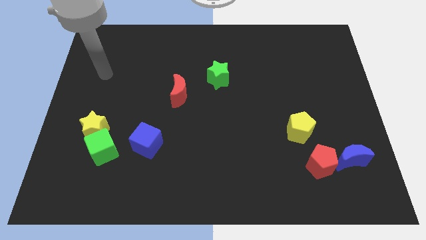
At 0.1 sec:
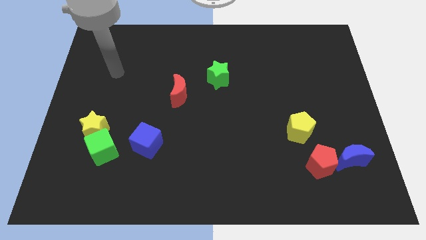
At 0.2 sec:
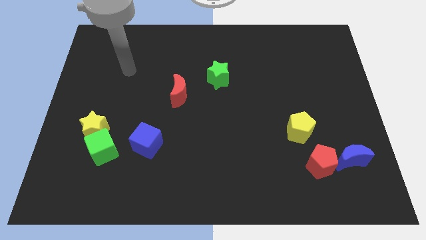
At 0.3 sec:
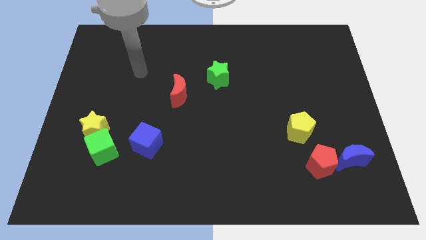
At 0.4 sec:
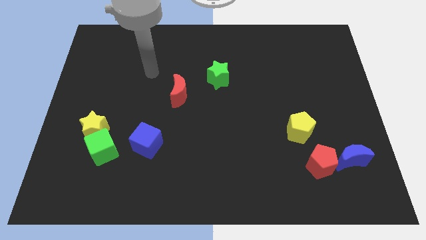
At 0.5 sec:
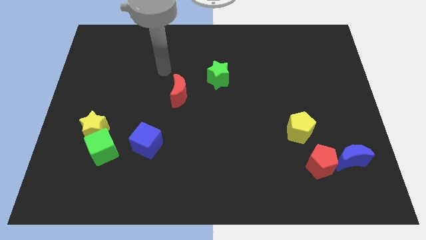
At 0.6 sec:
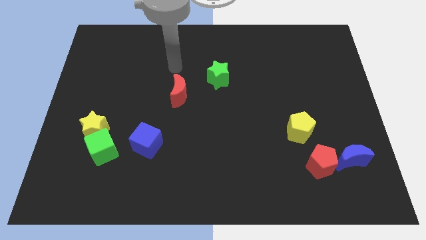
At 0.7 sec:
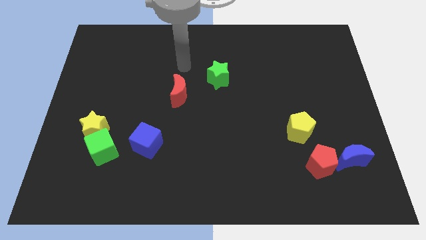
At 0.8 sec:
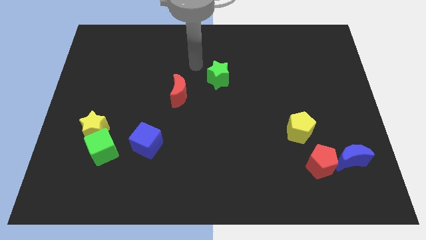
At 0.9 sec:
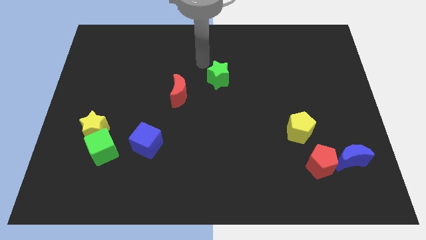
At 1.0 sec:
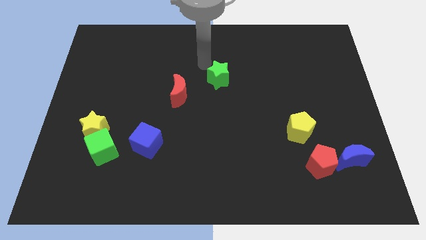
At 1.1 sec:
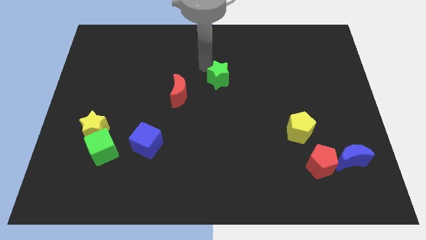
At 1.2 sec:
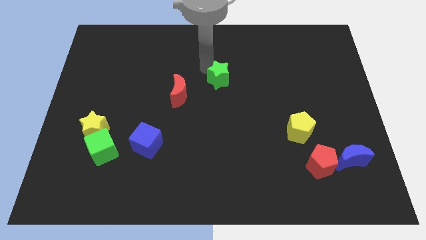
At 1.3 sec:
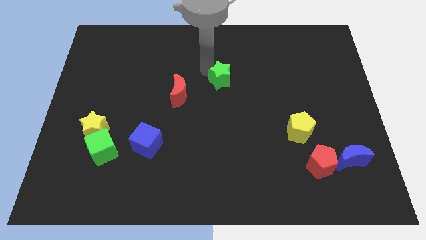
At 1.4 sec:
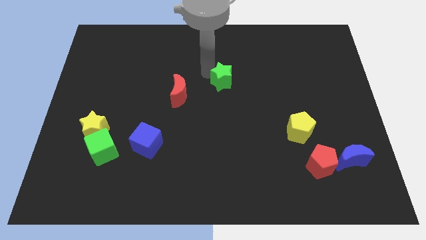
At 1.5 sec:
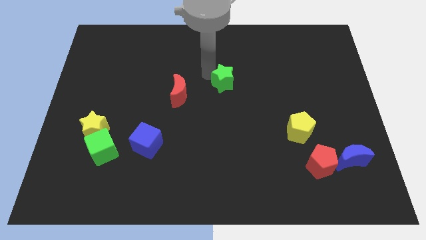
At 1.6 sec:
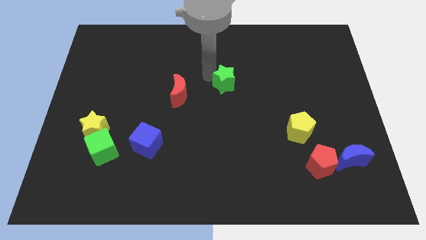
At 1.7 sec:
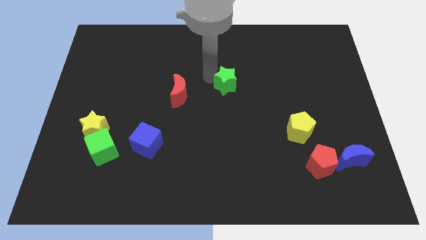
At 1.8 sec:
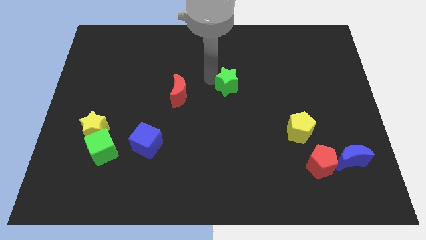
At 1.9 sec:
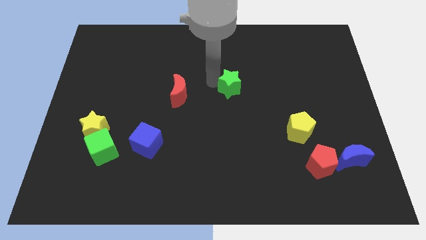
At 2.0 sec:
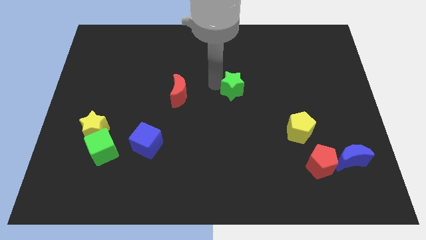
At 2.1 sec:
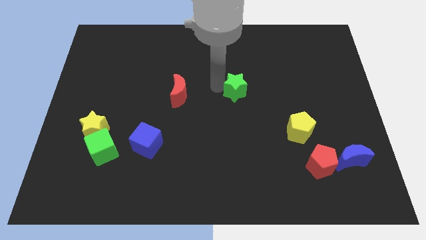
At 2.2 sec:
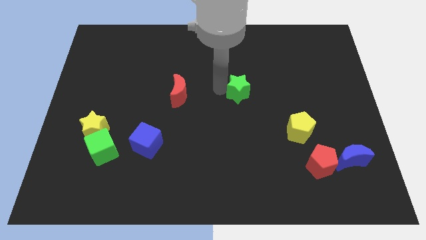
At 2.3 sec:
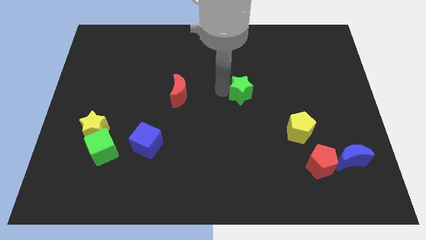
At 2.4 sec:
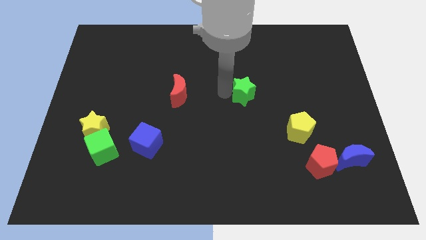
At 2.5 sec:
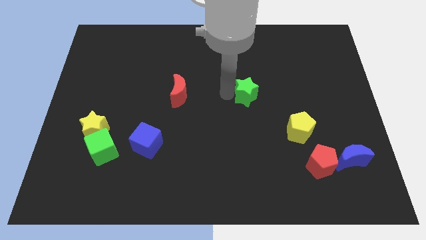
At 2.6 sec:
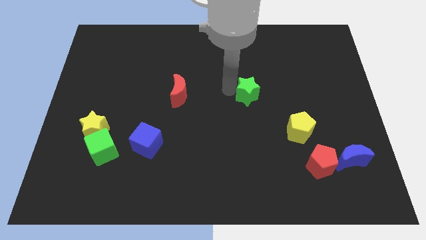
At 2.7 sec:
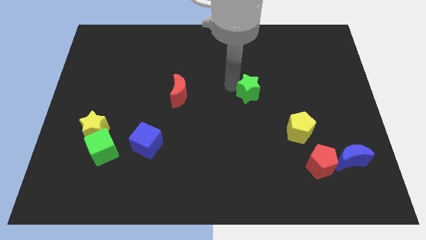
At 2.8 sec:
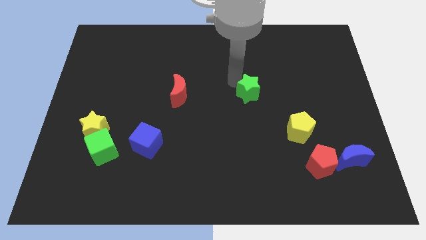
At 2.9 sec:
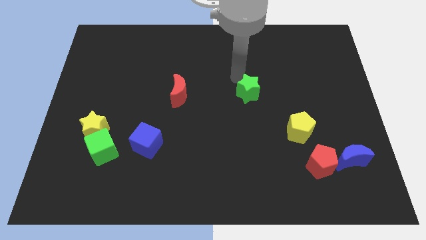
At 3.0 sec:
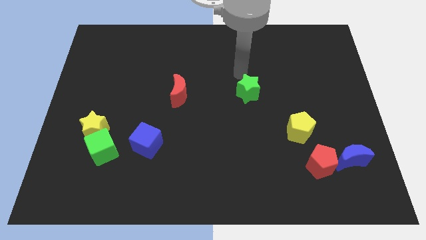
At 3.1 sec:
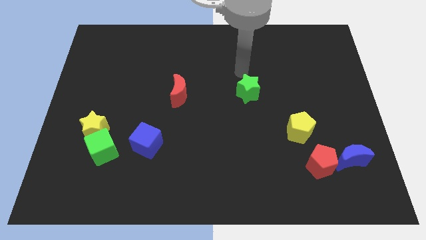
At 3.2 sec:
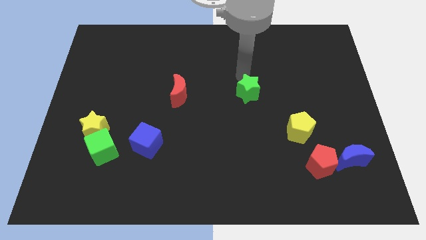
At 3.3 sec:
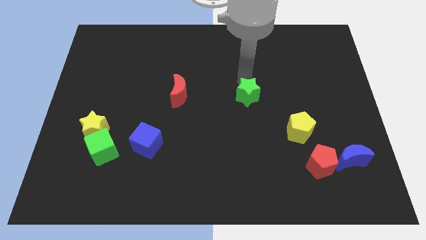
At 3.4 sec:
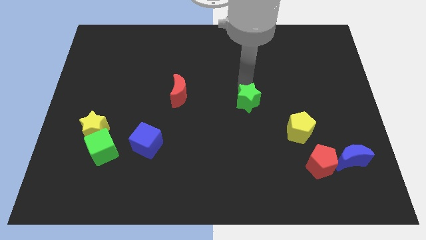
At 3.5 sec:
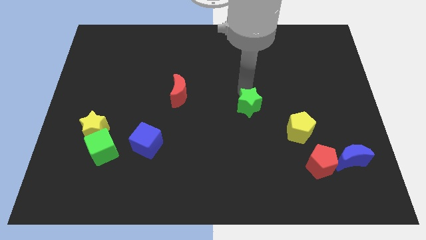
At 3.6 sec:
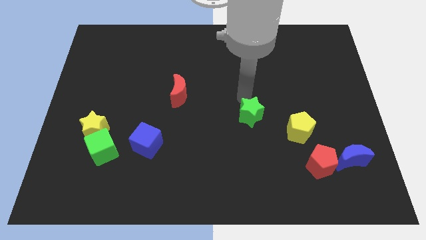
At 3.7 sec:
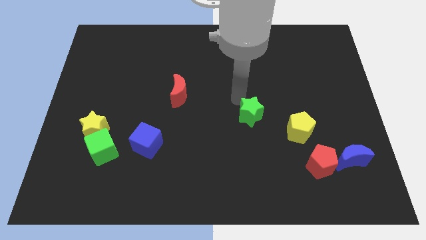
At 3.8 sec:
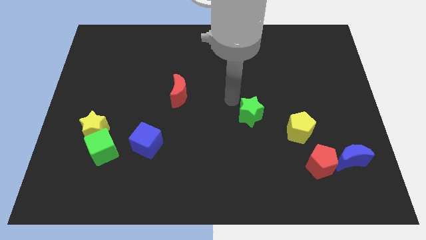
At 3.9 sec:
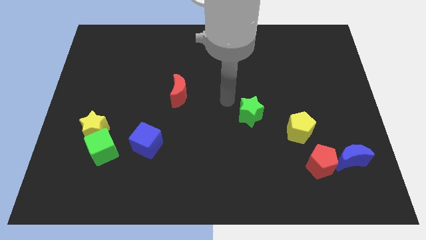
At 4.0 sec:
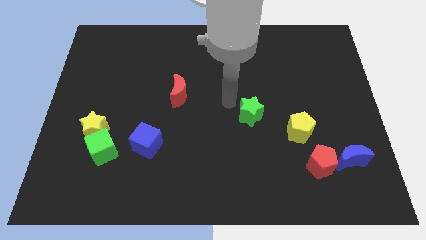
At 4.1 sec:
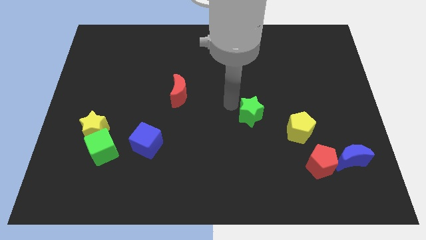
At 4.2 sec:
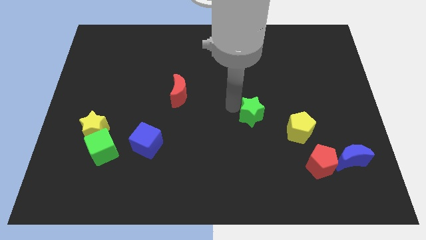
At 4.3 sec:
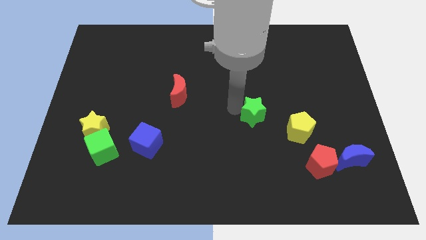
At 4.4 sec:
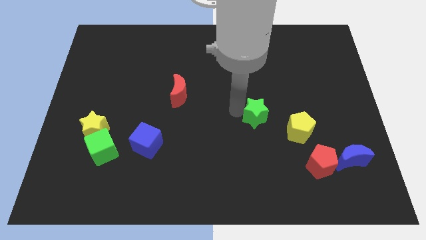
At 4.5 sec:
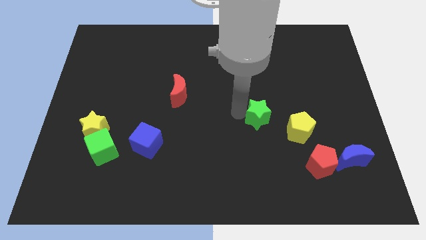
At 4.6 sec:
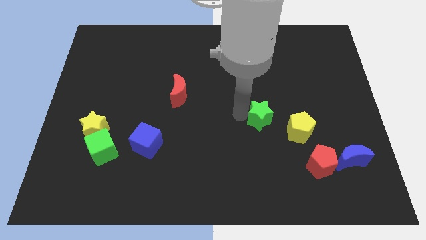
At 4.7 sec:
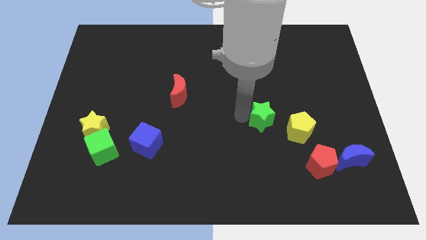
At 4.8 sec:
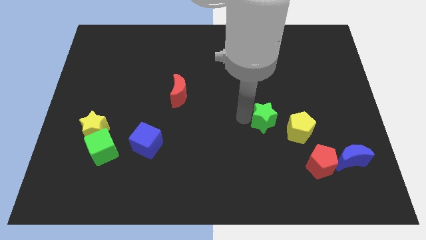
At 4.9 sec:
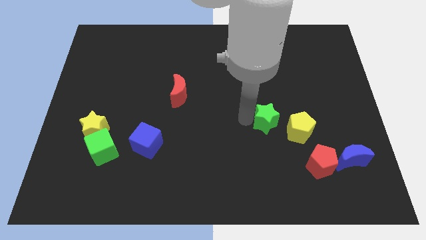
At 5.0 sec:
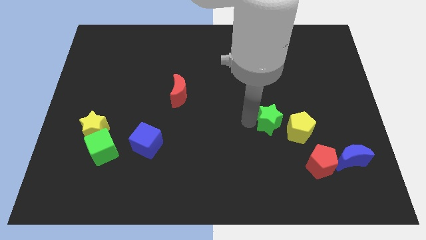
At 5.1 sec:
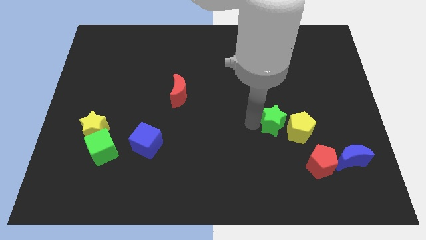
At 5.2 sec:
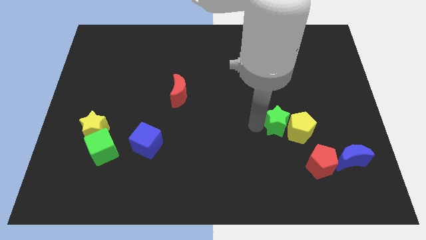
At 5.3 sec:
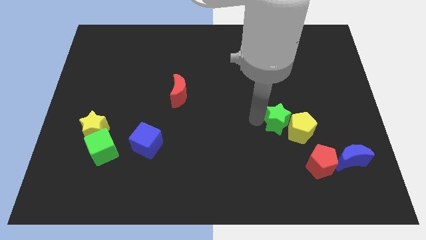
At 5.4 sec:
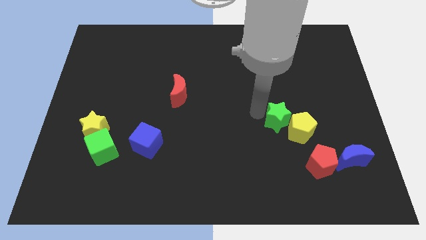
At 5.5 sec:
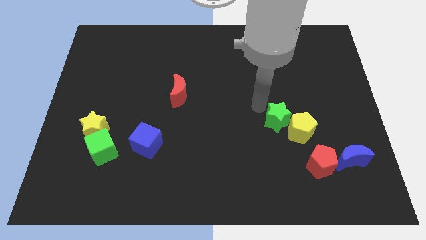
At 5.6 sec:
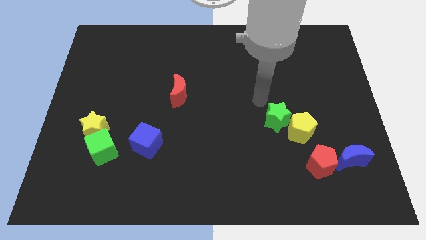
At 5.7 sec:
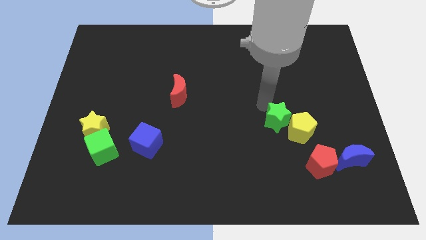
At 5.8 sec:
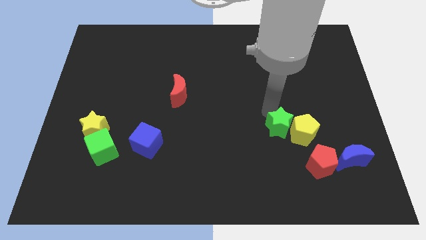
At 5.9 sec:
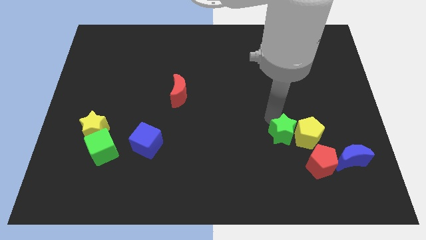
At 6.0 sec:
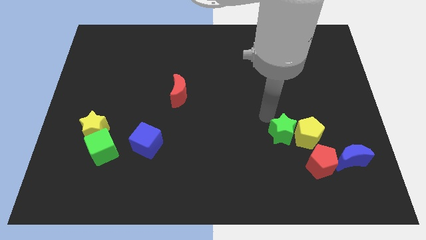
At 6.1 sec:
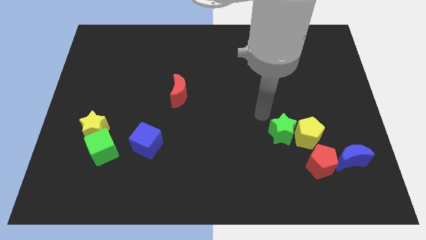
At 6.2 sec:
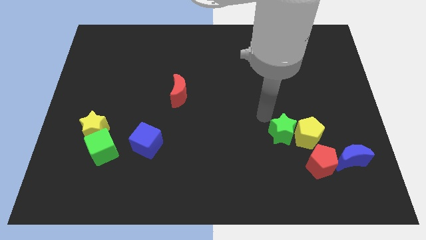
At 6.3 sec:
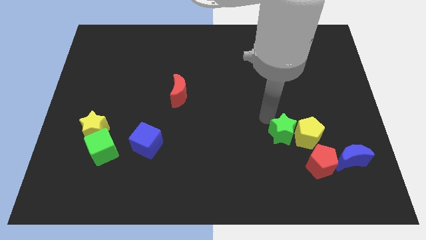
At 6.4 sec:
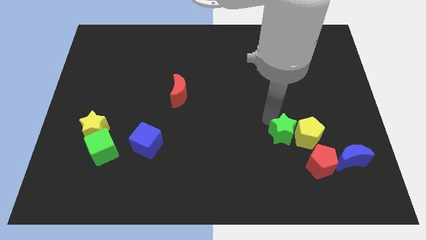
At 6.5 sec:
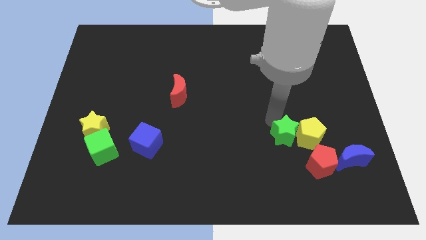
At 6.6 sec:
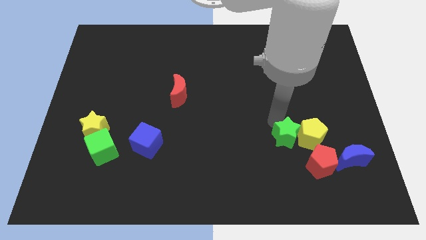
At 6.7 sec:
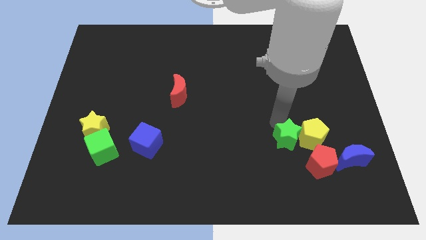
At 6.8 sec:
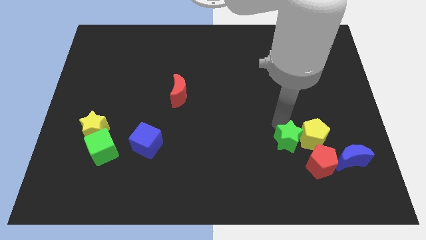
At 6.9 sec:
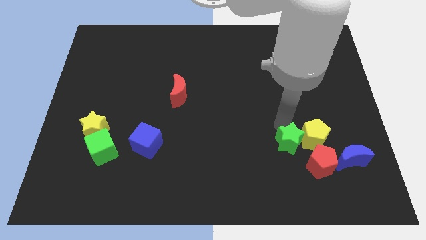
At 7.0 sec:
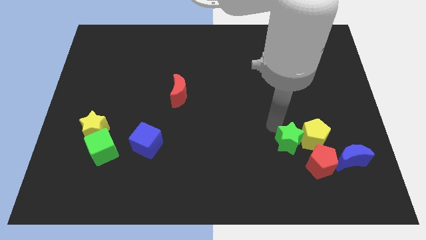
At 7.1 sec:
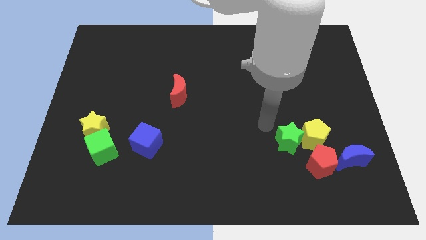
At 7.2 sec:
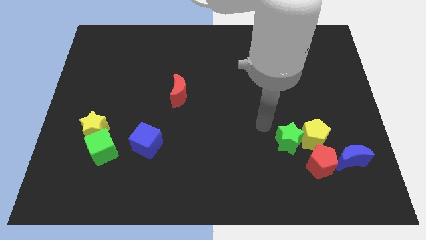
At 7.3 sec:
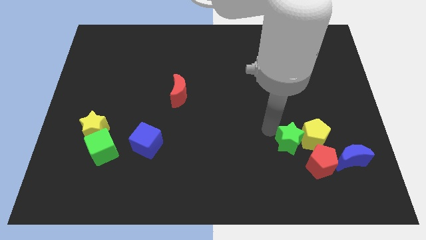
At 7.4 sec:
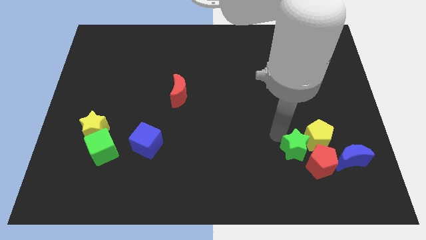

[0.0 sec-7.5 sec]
put the green star to the red pentagon

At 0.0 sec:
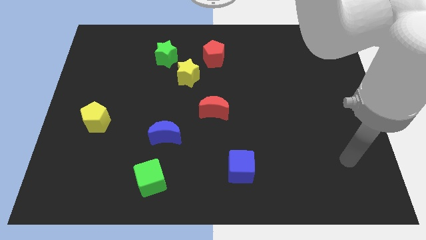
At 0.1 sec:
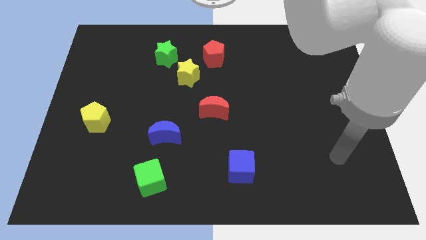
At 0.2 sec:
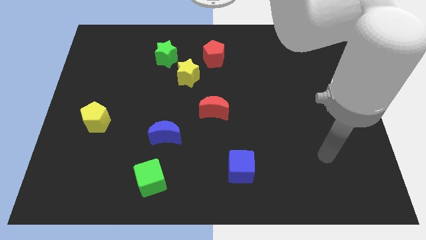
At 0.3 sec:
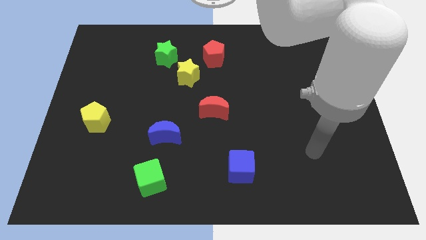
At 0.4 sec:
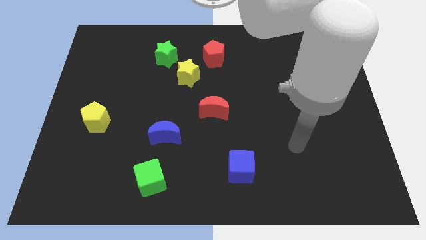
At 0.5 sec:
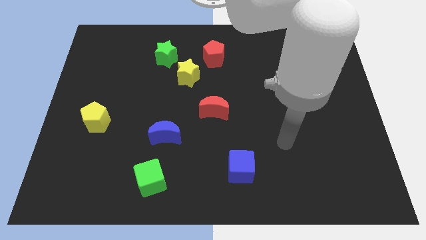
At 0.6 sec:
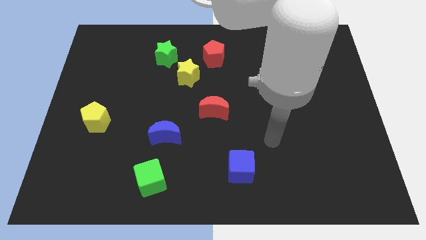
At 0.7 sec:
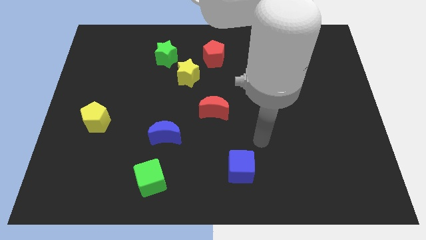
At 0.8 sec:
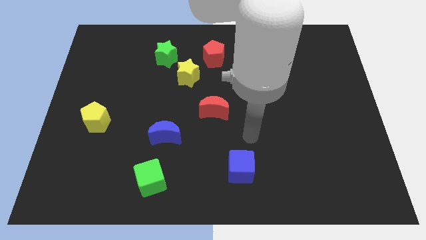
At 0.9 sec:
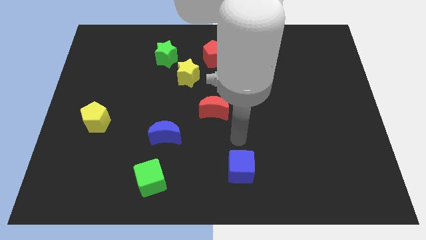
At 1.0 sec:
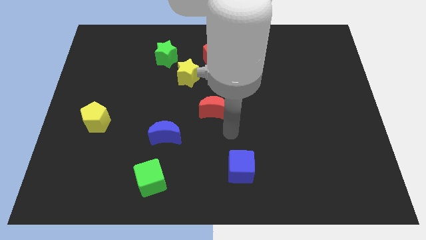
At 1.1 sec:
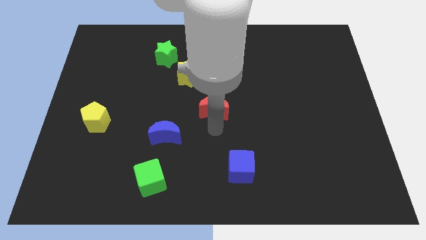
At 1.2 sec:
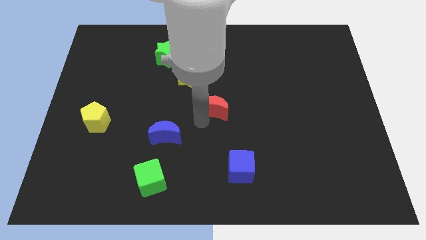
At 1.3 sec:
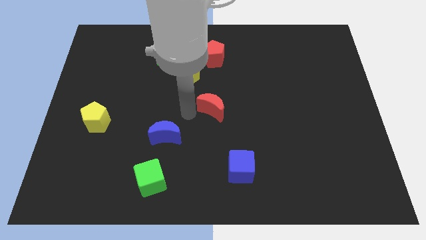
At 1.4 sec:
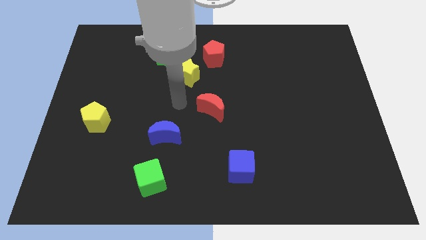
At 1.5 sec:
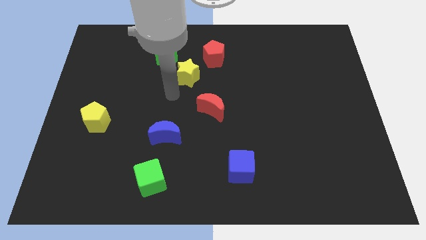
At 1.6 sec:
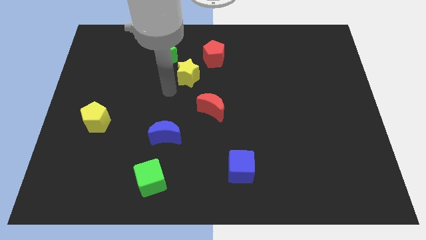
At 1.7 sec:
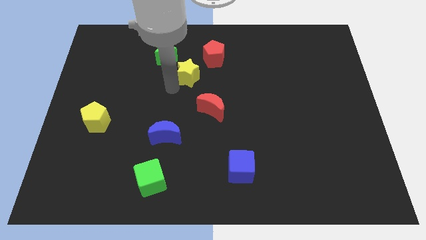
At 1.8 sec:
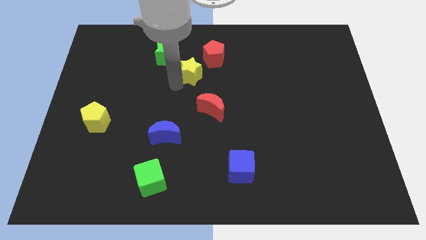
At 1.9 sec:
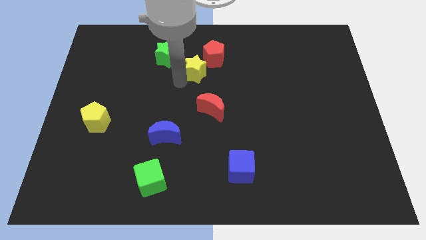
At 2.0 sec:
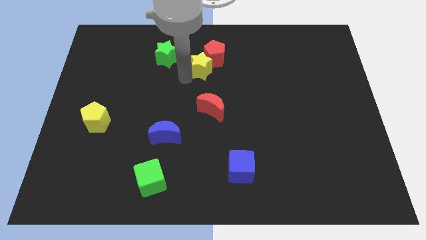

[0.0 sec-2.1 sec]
slide the yellow star next to the red pentagon
